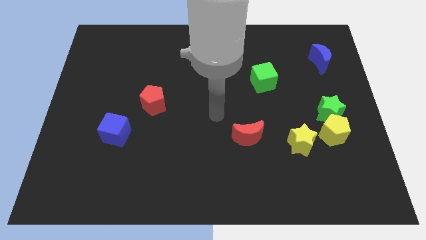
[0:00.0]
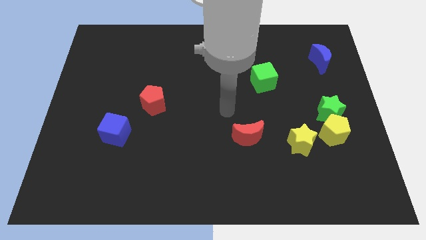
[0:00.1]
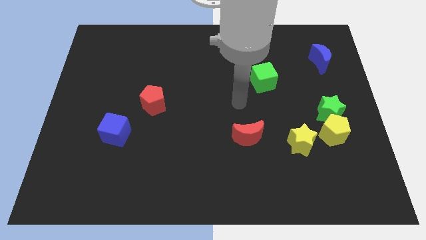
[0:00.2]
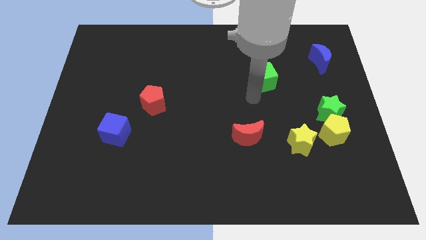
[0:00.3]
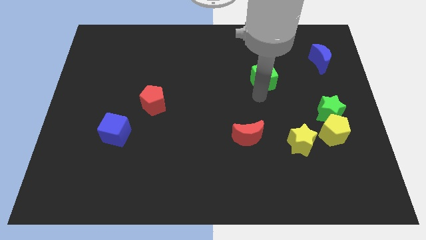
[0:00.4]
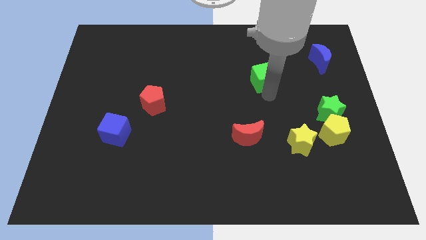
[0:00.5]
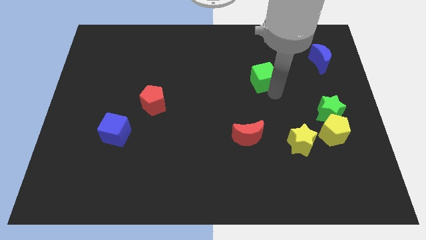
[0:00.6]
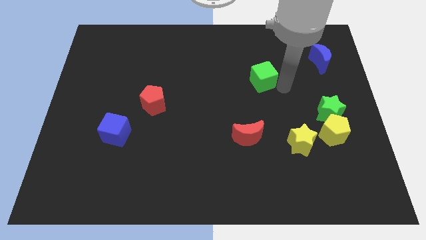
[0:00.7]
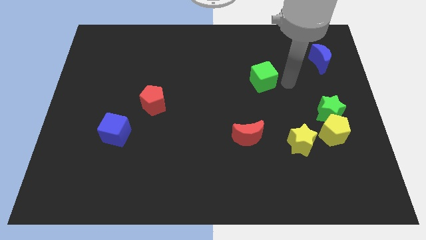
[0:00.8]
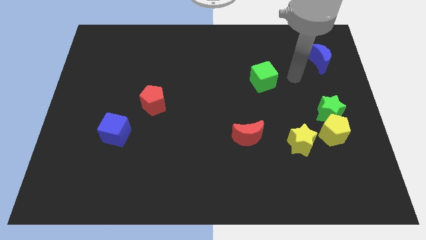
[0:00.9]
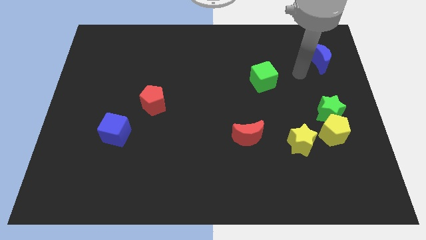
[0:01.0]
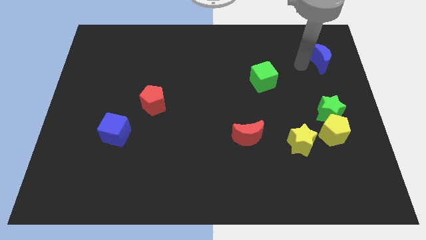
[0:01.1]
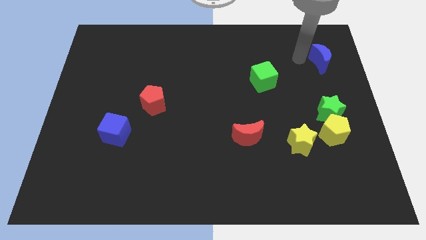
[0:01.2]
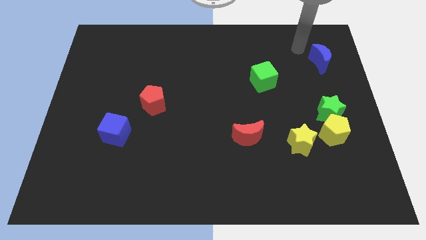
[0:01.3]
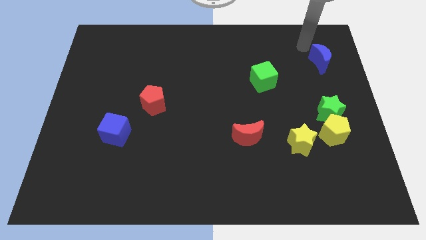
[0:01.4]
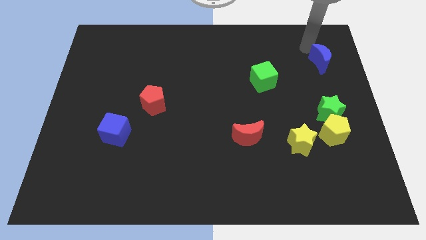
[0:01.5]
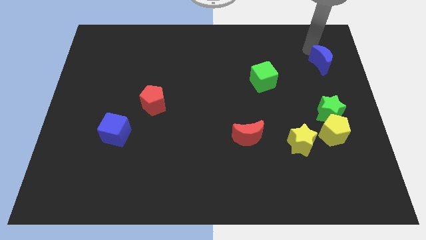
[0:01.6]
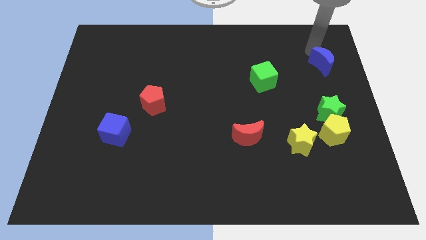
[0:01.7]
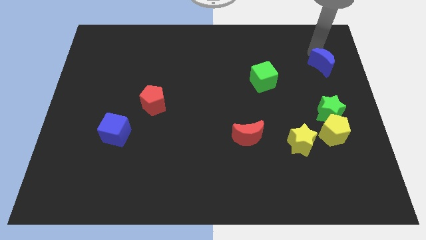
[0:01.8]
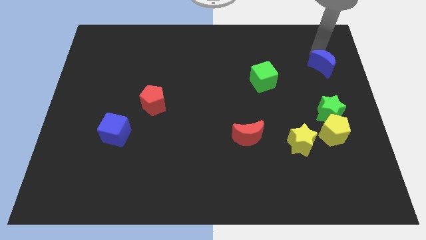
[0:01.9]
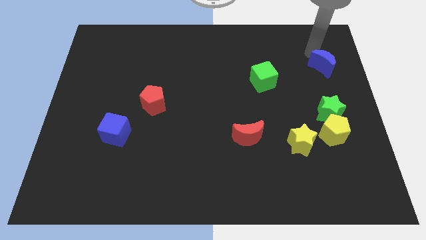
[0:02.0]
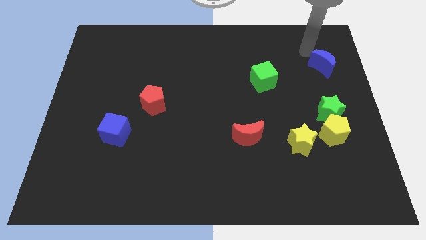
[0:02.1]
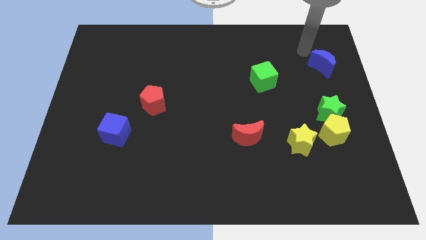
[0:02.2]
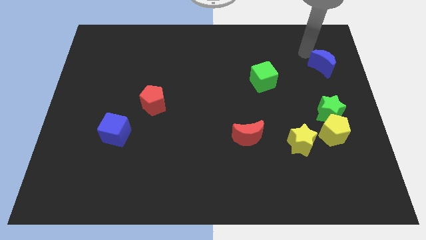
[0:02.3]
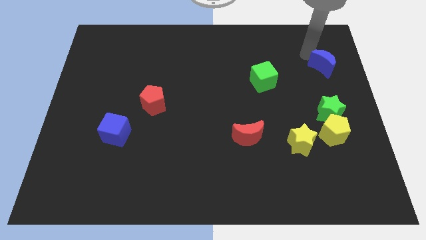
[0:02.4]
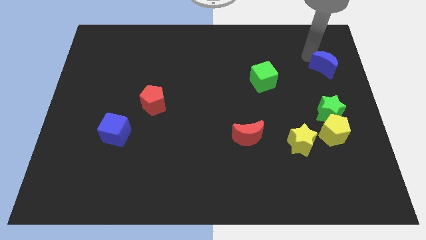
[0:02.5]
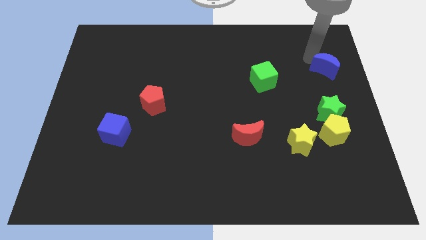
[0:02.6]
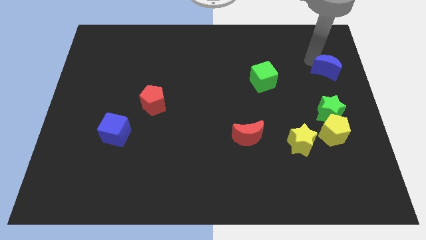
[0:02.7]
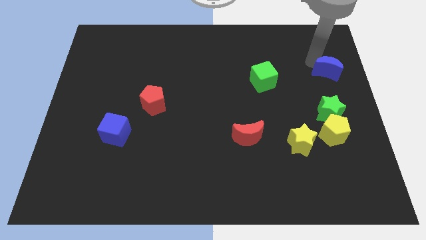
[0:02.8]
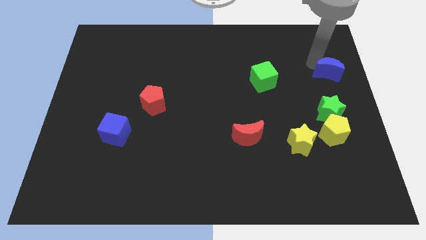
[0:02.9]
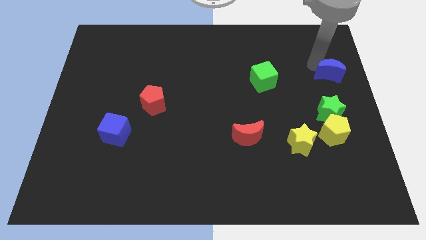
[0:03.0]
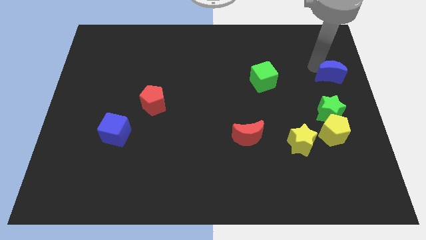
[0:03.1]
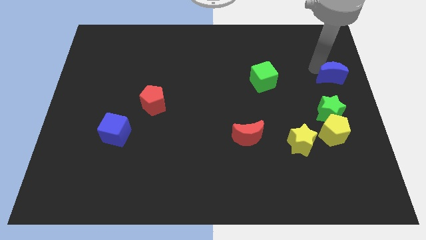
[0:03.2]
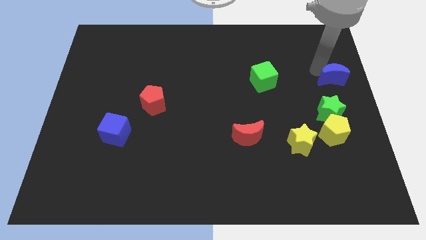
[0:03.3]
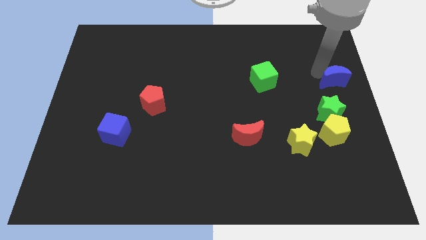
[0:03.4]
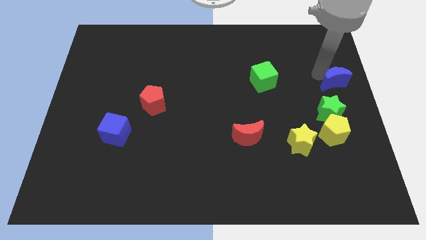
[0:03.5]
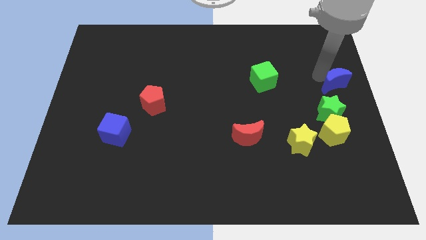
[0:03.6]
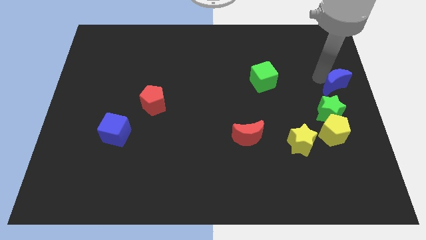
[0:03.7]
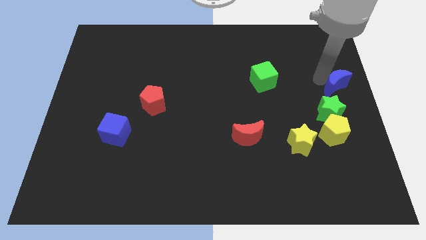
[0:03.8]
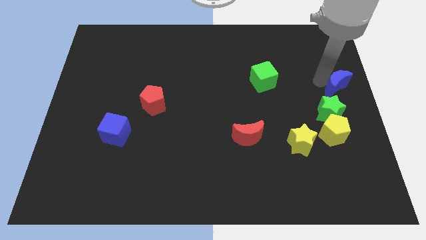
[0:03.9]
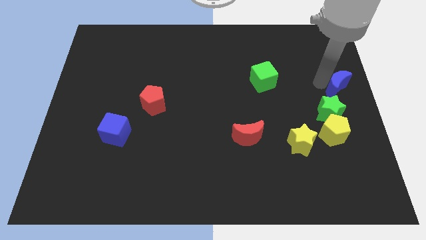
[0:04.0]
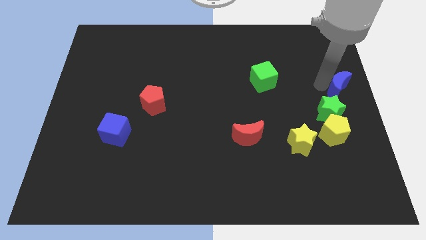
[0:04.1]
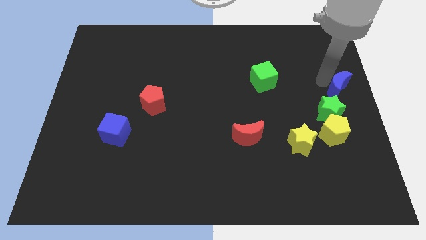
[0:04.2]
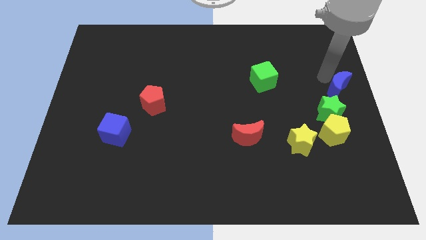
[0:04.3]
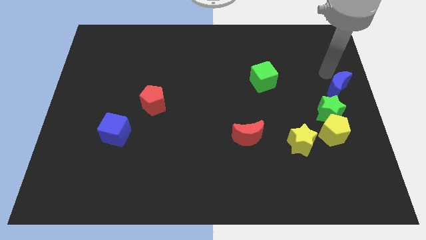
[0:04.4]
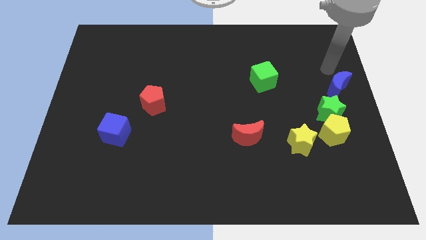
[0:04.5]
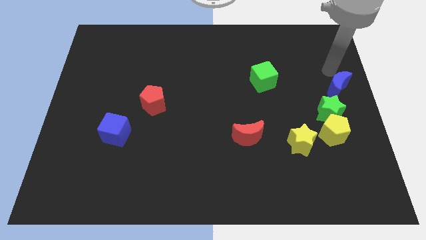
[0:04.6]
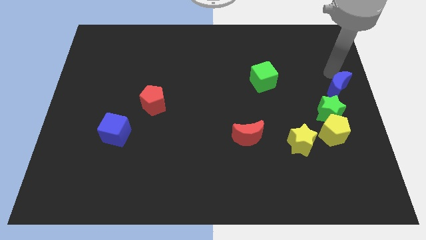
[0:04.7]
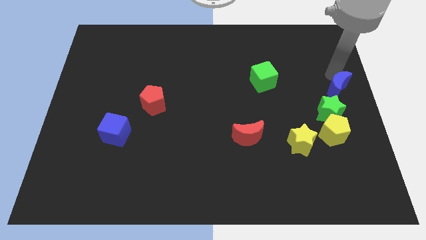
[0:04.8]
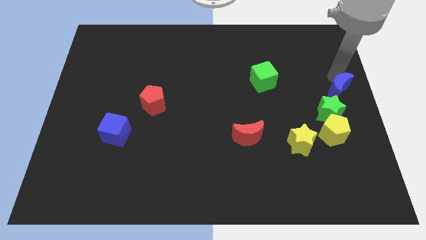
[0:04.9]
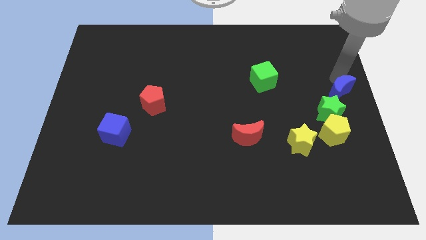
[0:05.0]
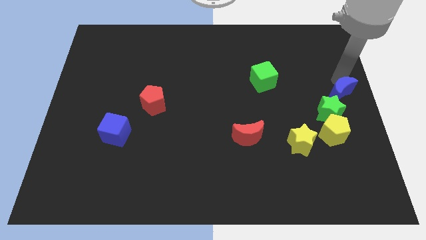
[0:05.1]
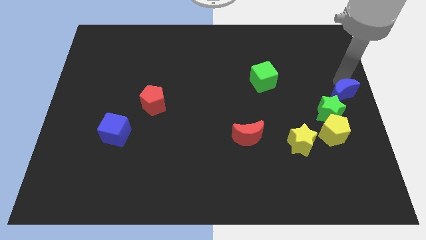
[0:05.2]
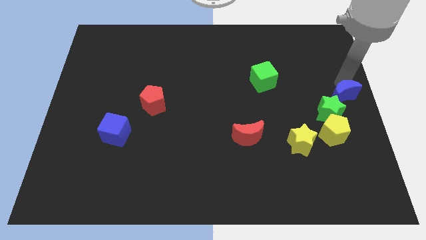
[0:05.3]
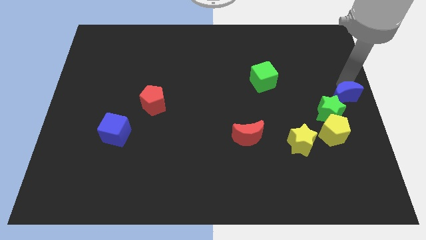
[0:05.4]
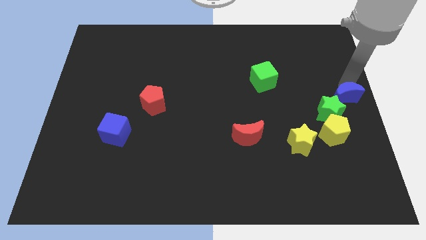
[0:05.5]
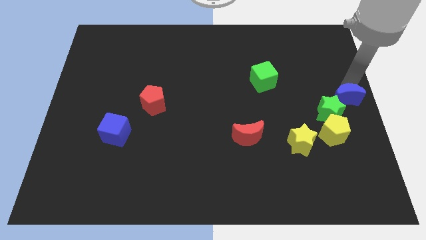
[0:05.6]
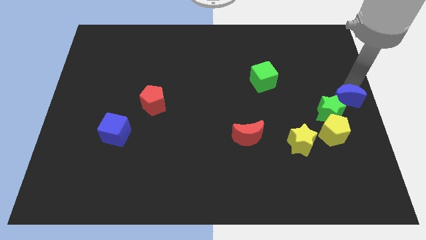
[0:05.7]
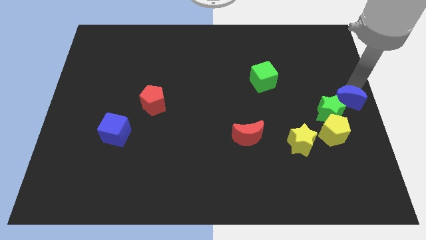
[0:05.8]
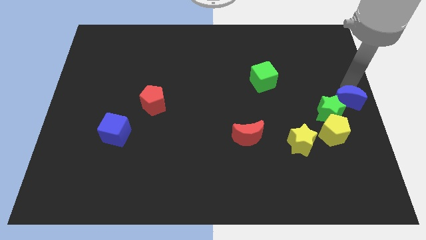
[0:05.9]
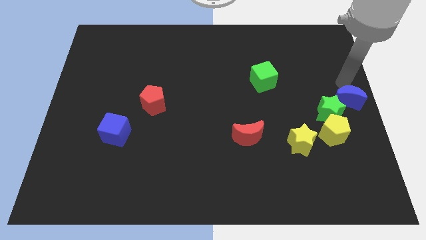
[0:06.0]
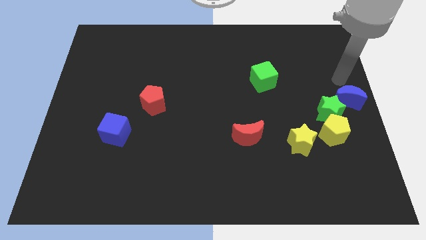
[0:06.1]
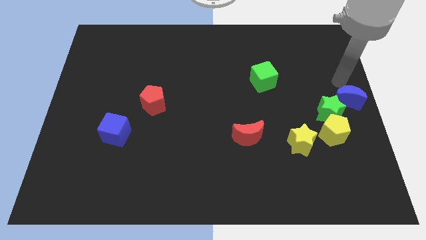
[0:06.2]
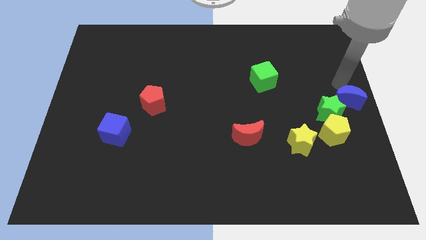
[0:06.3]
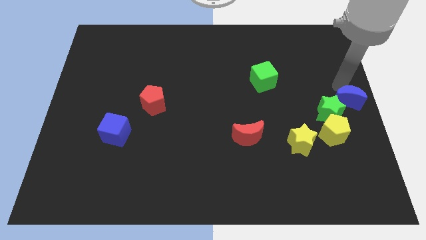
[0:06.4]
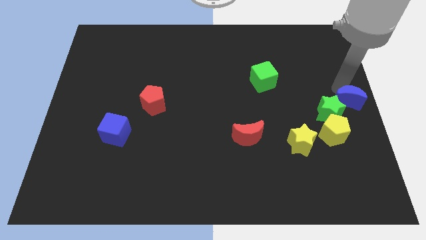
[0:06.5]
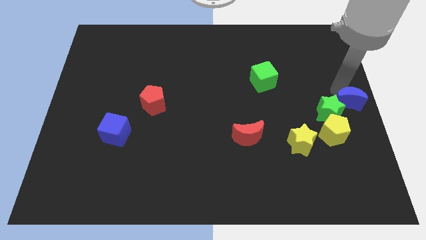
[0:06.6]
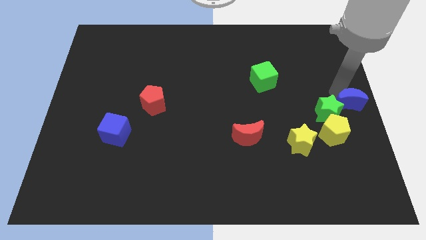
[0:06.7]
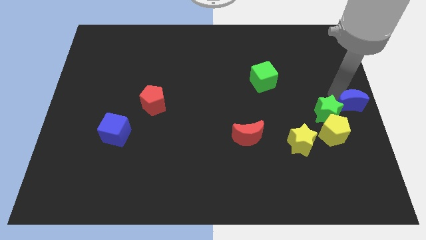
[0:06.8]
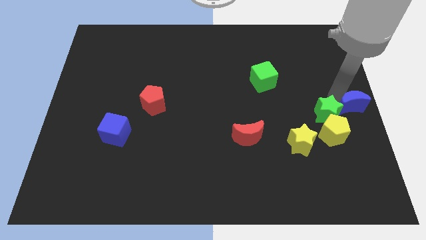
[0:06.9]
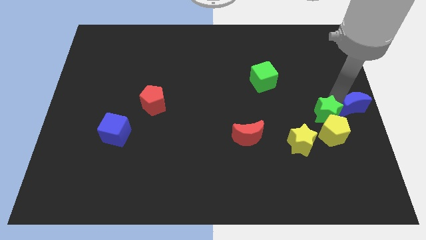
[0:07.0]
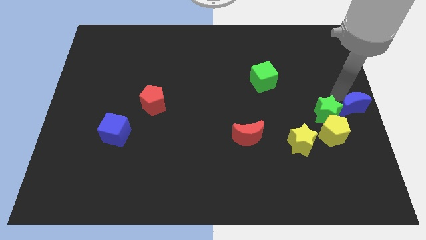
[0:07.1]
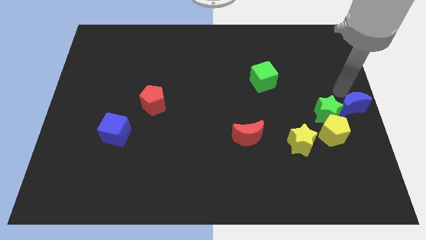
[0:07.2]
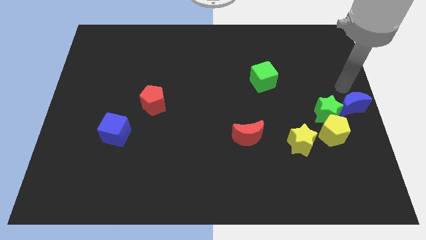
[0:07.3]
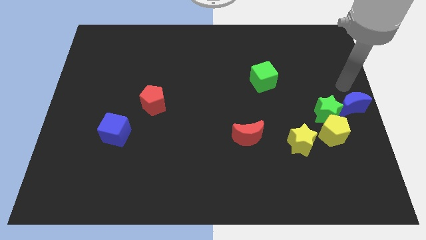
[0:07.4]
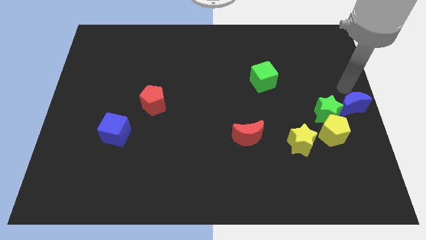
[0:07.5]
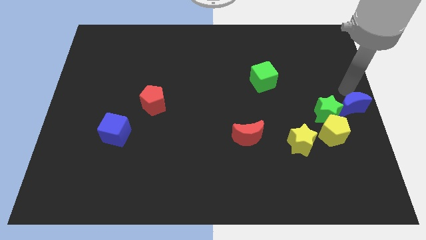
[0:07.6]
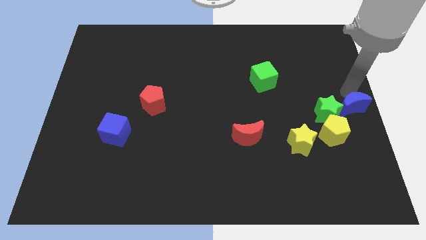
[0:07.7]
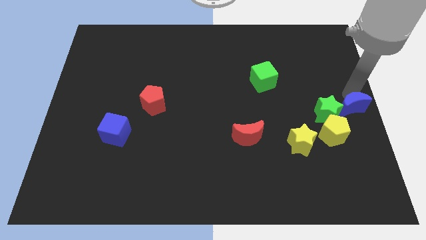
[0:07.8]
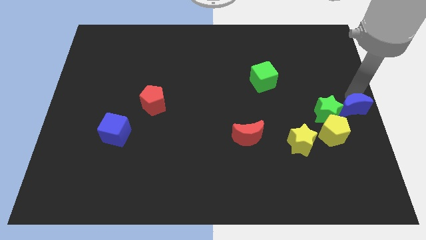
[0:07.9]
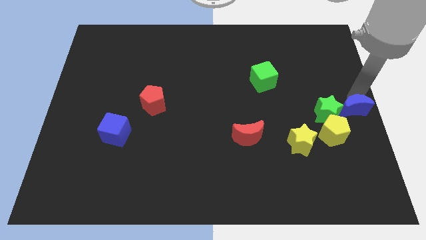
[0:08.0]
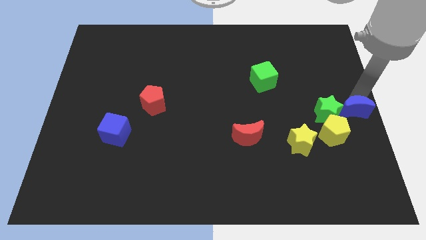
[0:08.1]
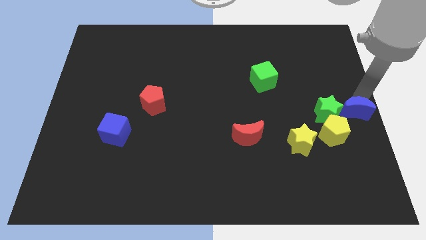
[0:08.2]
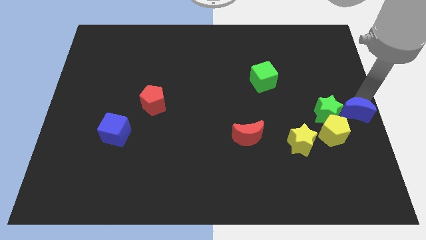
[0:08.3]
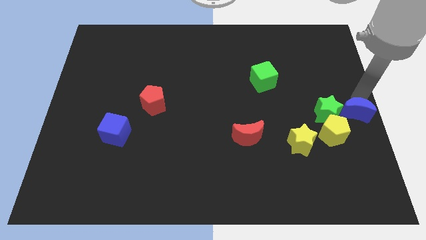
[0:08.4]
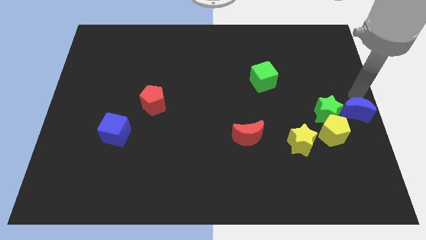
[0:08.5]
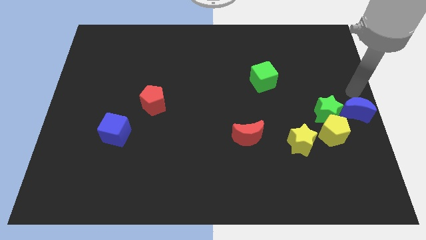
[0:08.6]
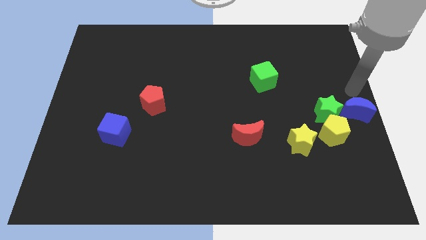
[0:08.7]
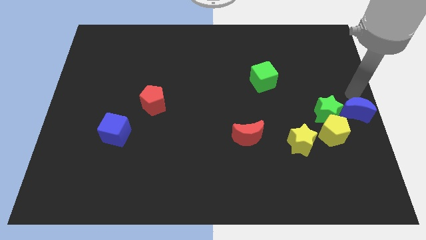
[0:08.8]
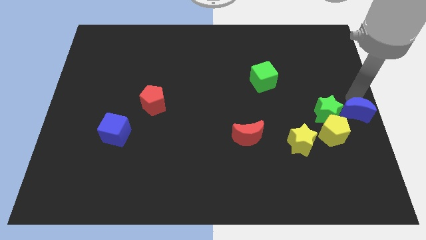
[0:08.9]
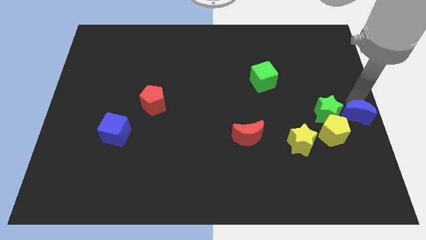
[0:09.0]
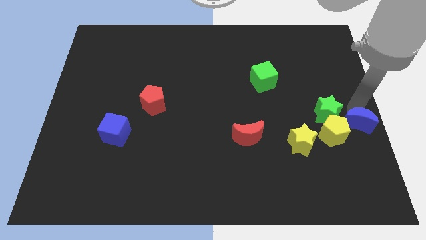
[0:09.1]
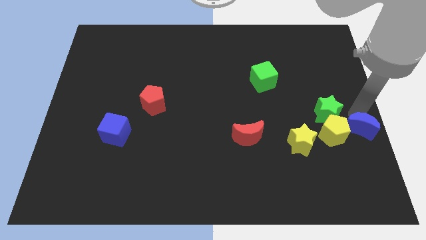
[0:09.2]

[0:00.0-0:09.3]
push the blue moon down
